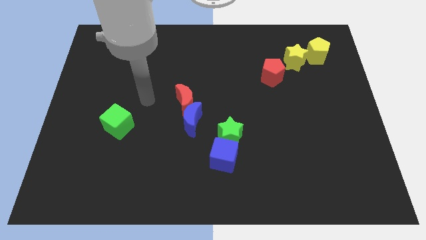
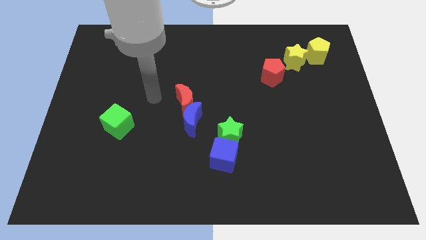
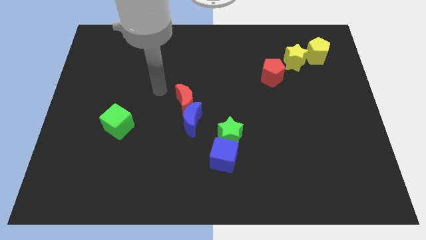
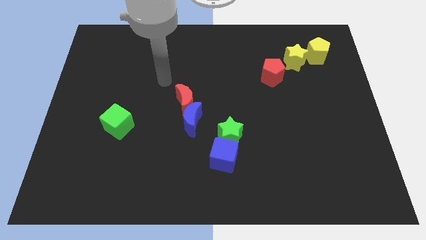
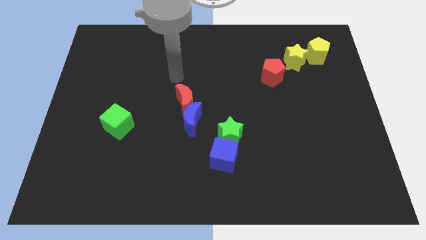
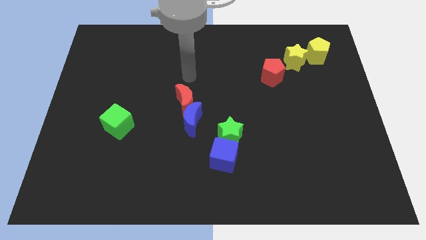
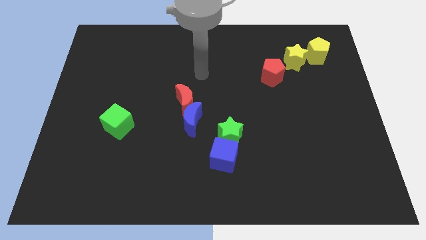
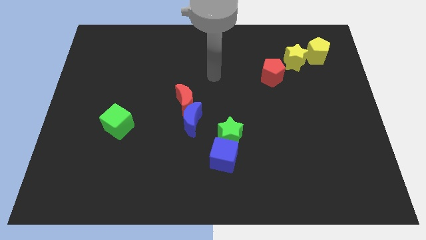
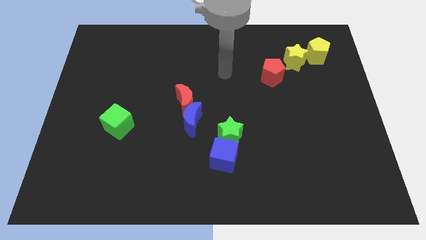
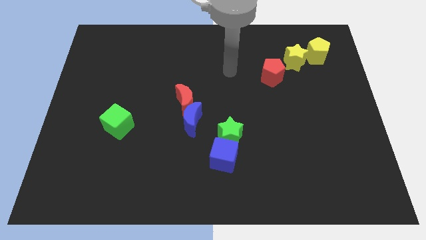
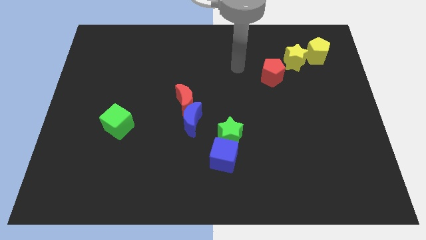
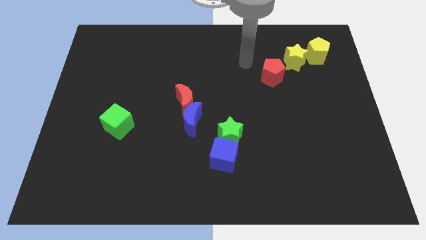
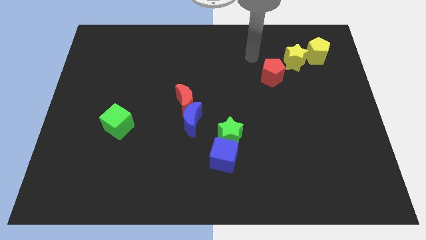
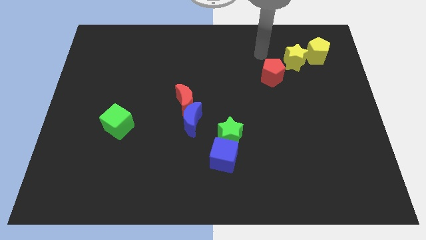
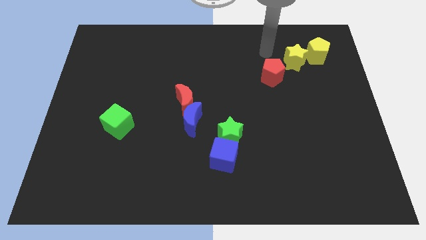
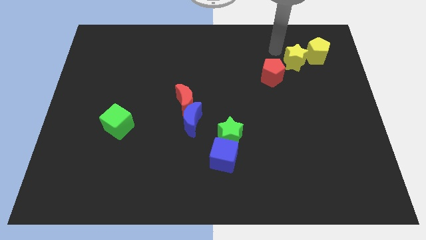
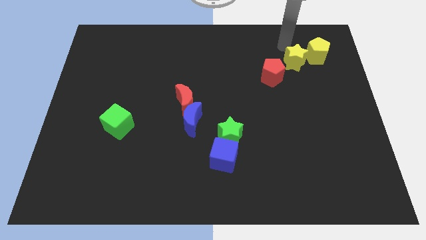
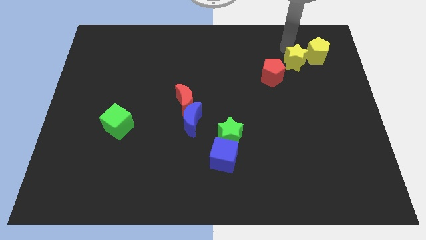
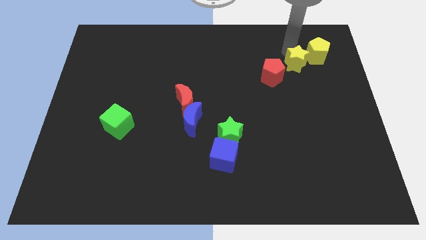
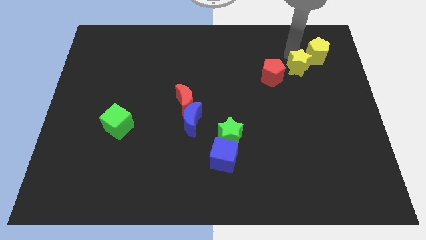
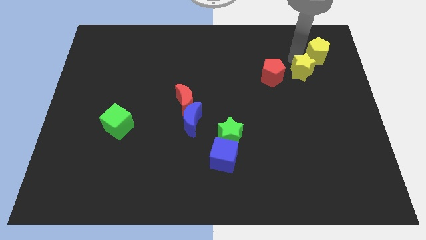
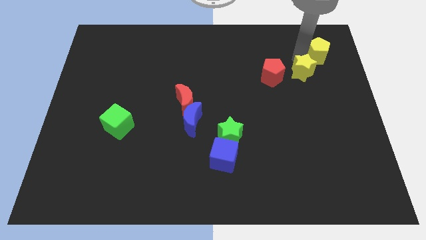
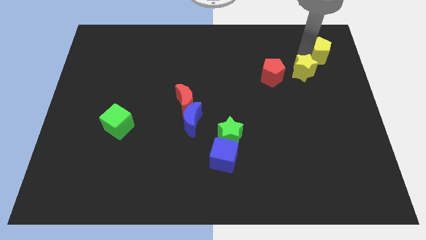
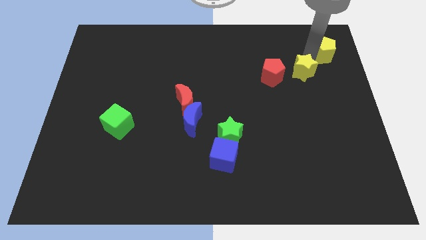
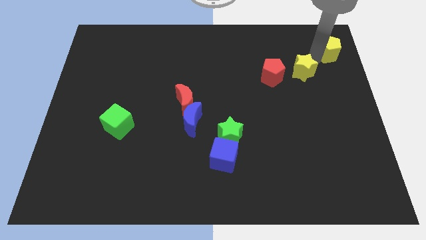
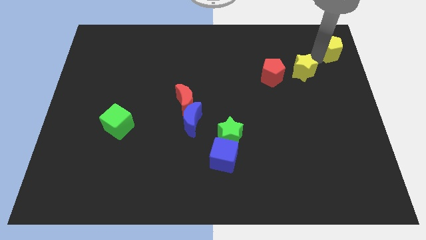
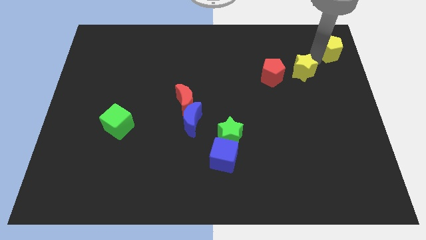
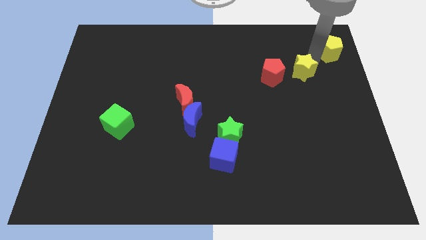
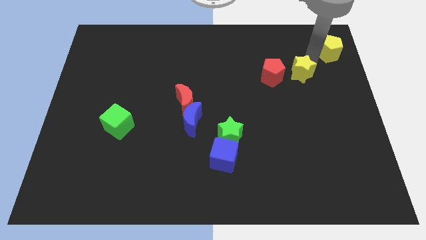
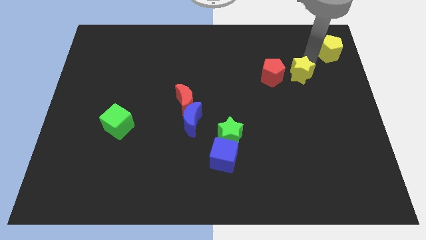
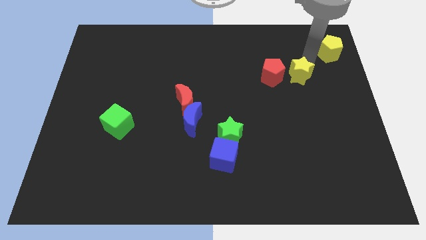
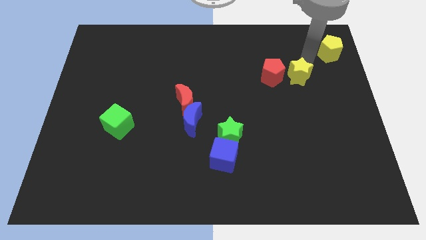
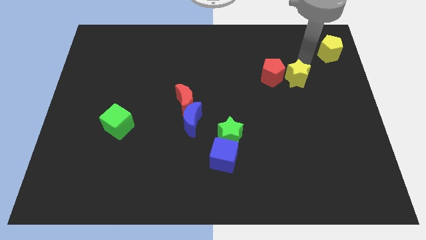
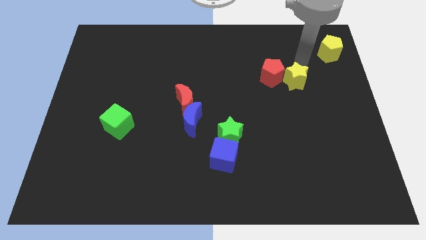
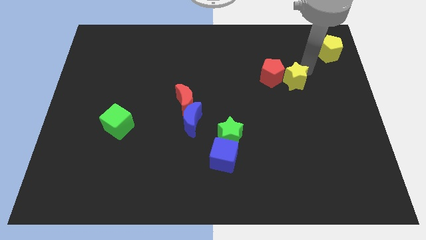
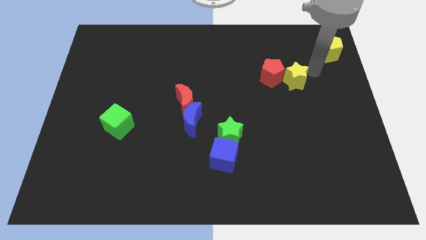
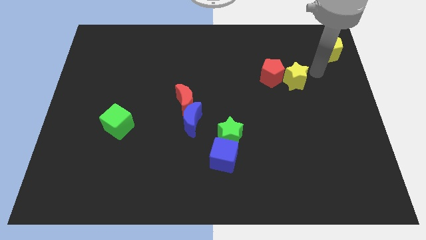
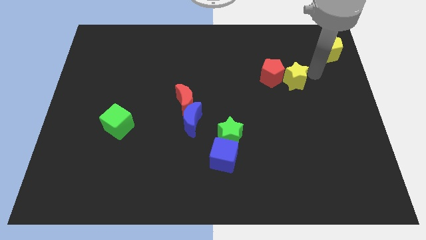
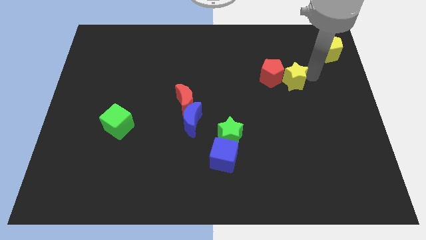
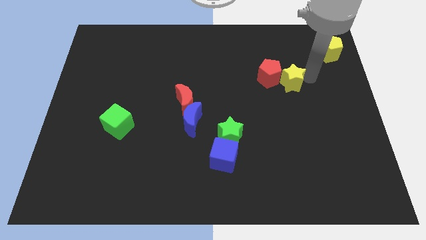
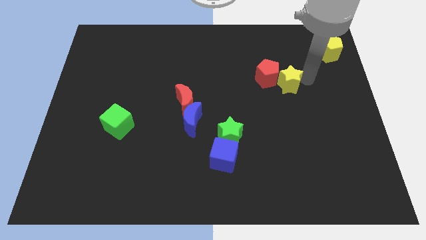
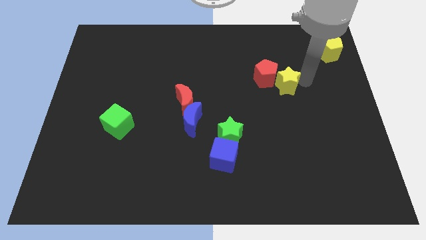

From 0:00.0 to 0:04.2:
slightly slide the yellow star downwards and then left

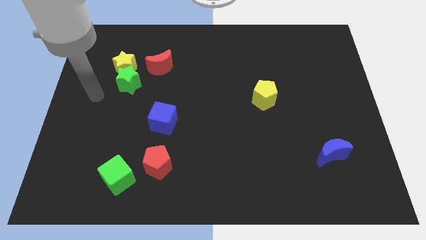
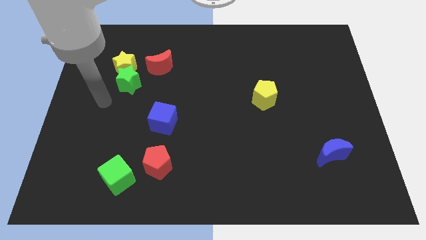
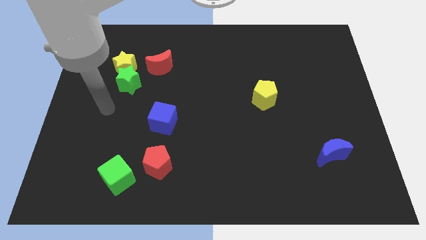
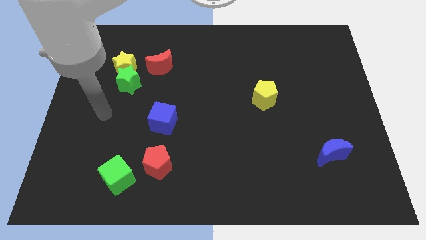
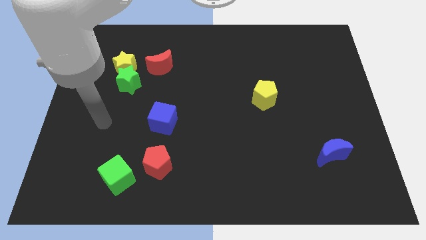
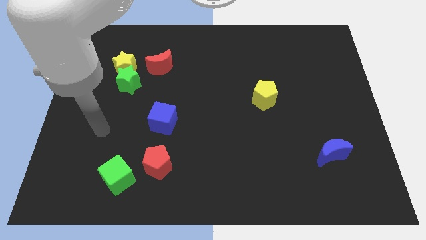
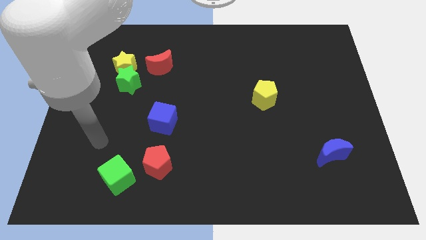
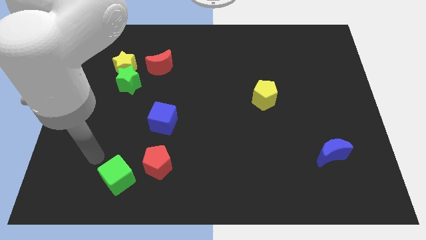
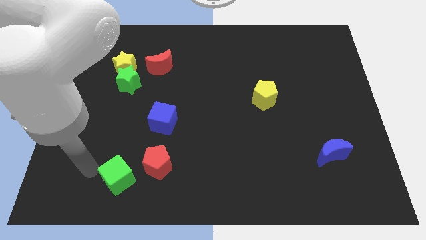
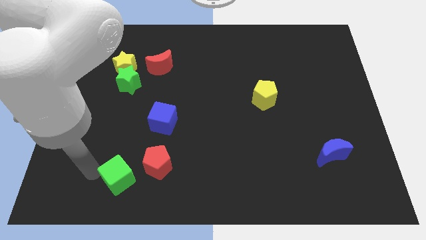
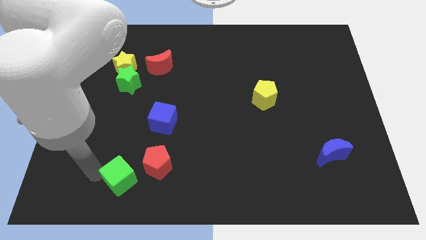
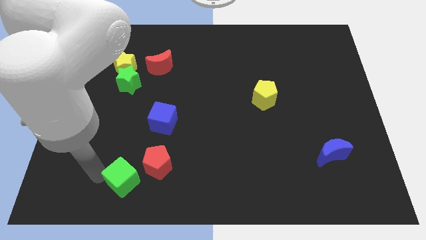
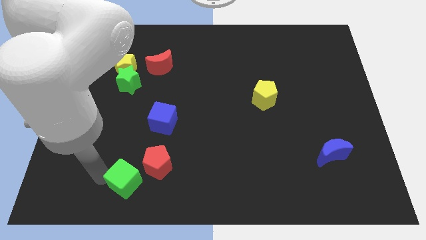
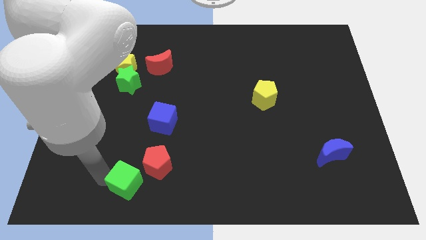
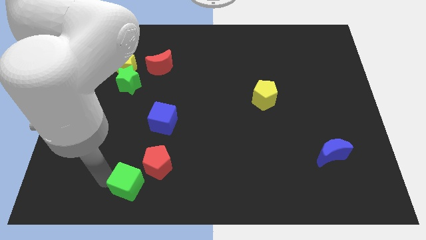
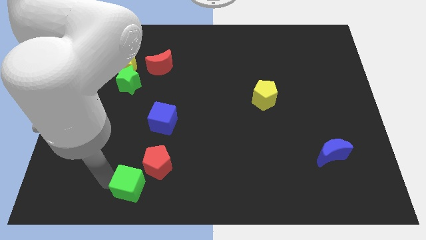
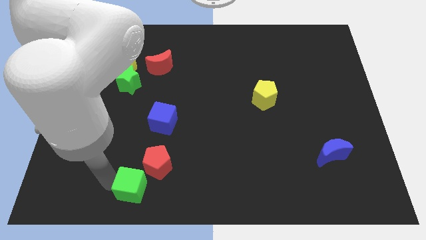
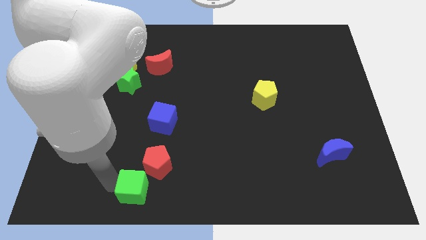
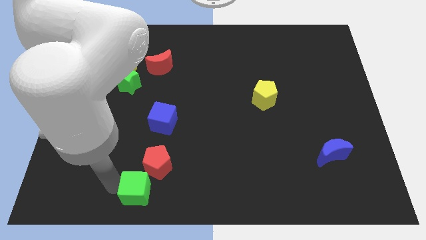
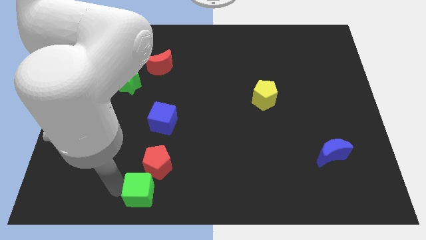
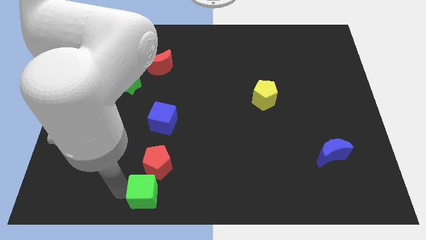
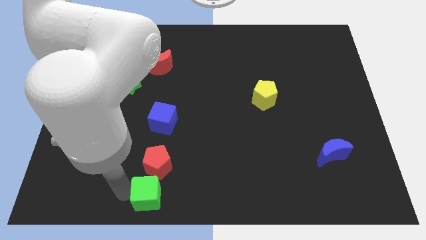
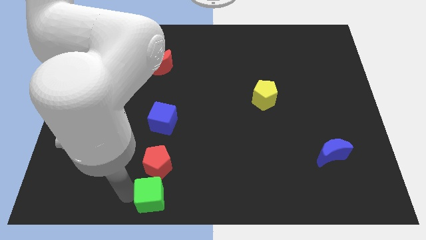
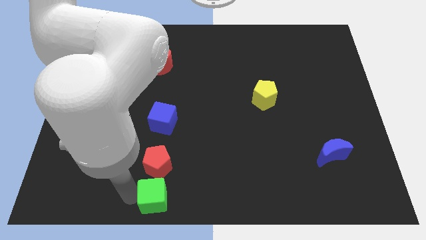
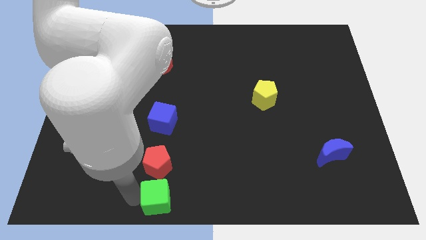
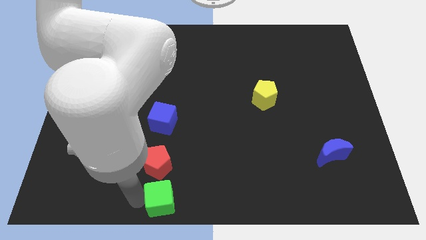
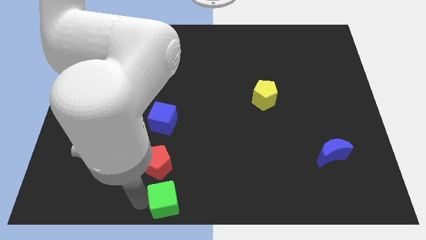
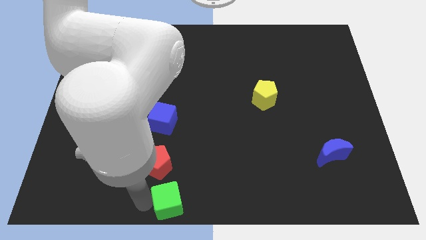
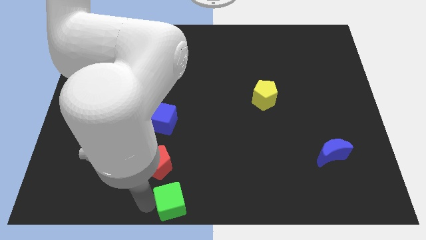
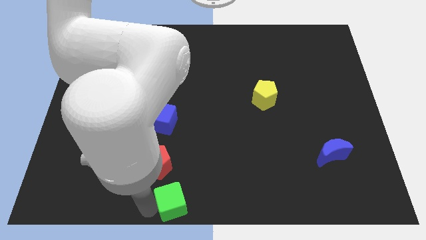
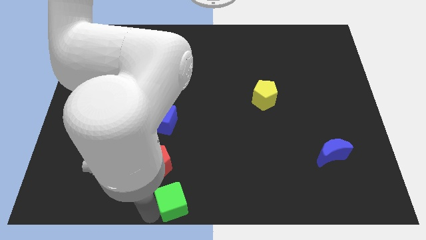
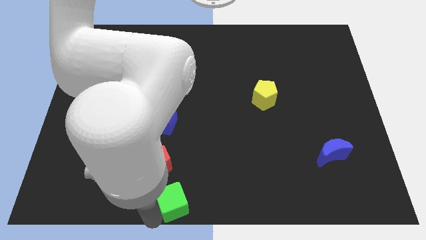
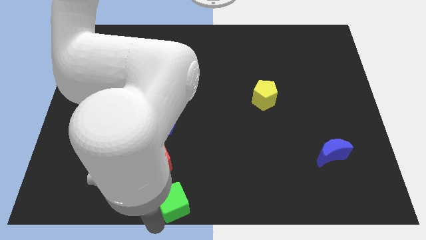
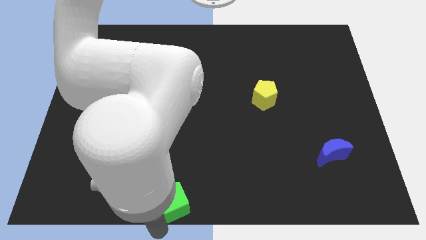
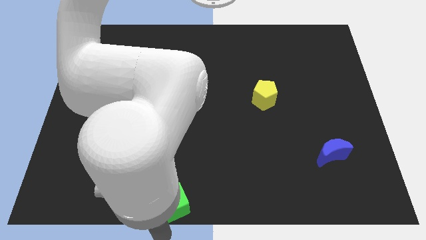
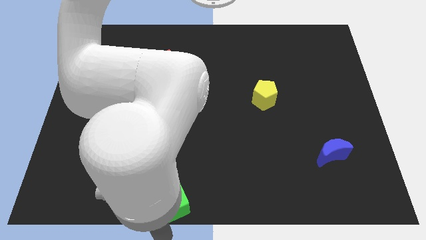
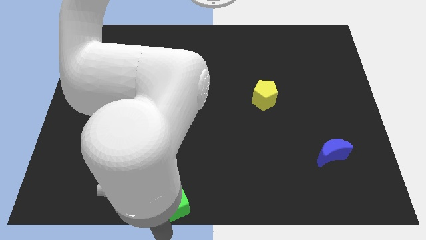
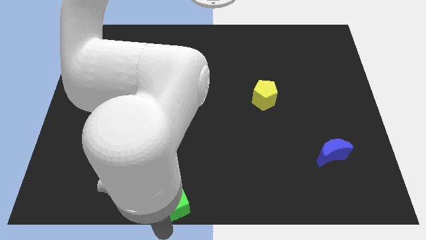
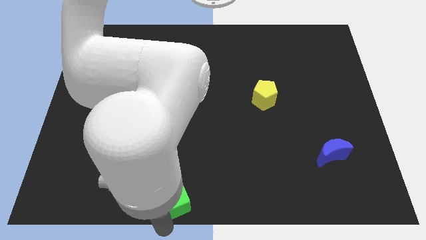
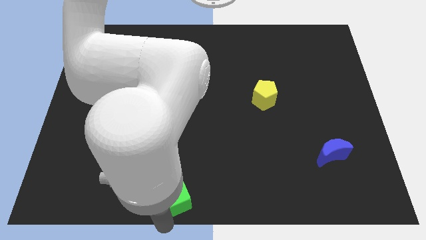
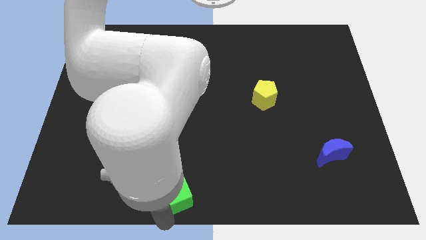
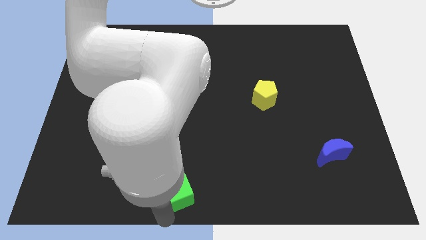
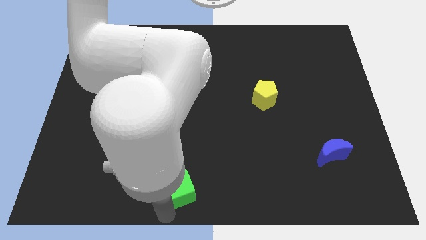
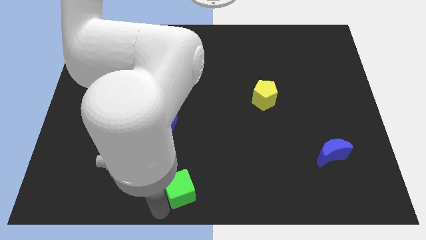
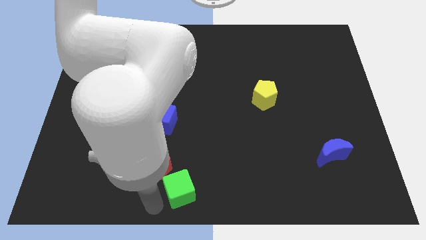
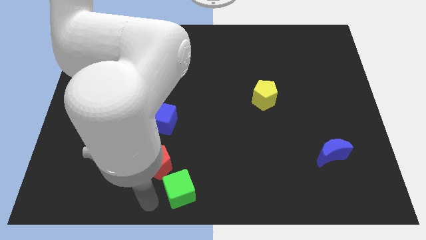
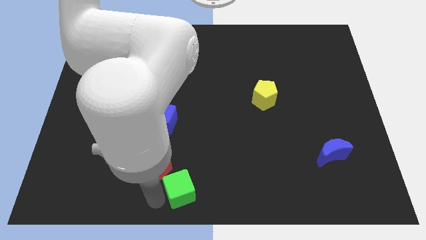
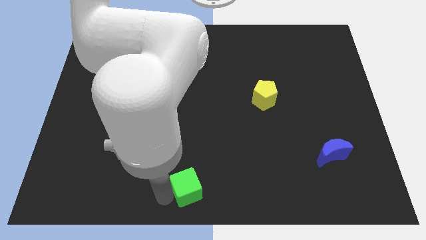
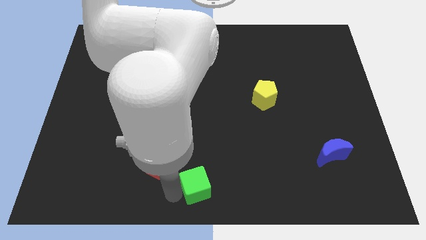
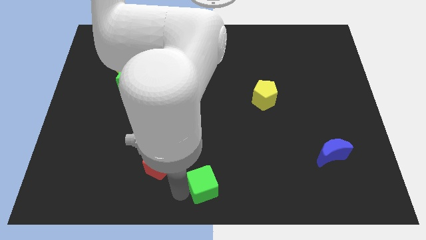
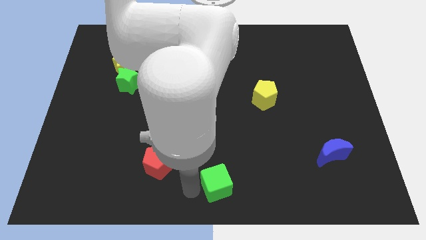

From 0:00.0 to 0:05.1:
slide the green cube right
